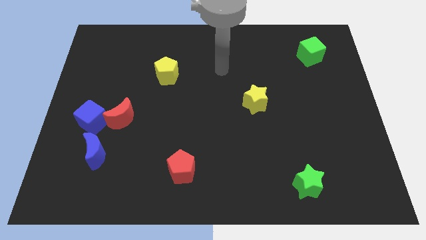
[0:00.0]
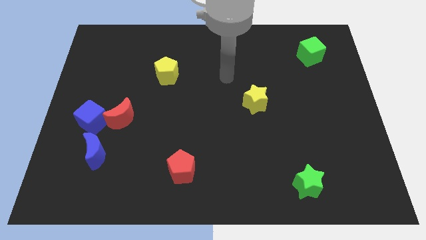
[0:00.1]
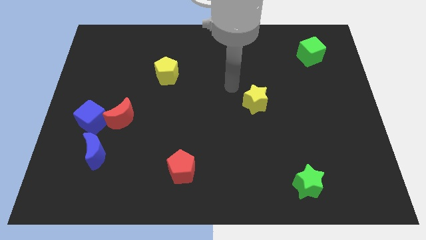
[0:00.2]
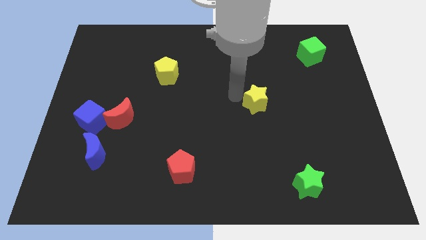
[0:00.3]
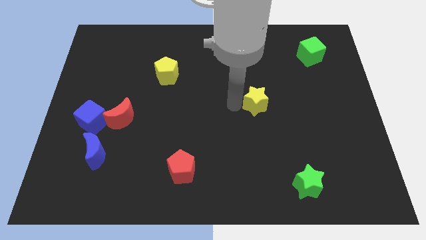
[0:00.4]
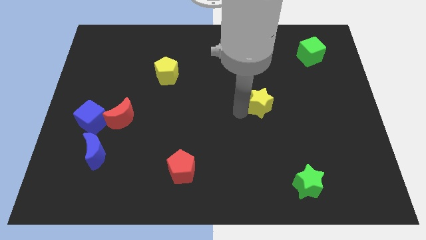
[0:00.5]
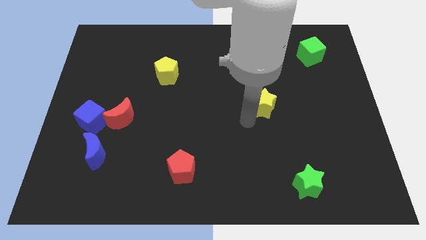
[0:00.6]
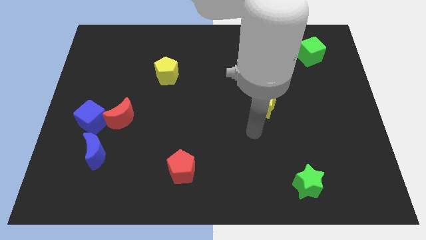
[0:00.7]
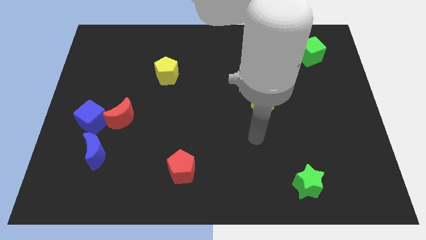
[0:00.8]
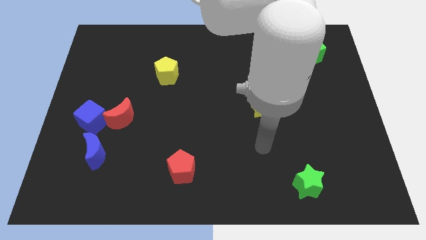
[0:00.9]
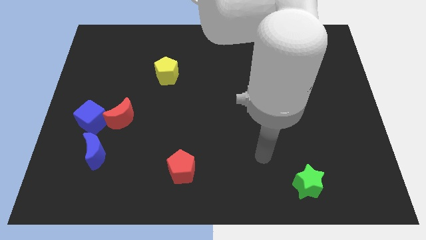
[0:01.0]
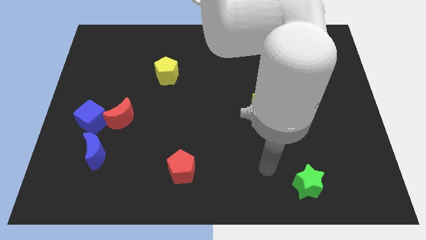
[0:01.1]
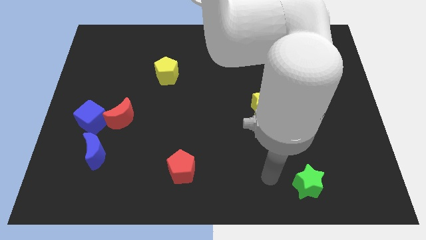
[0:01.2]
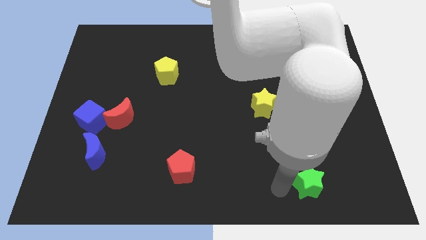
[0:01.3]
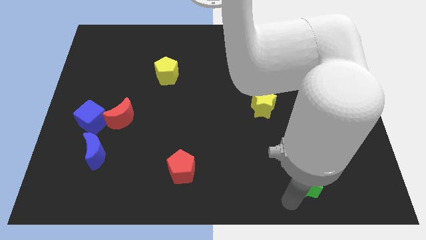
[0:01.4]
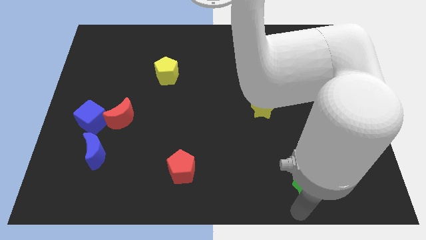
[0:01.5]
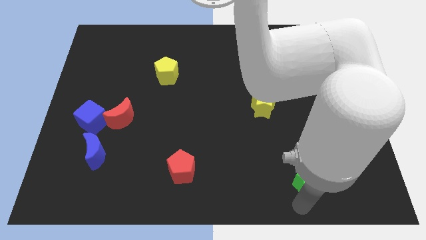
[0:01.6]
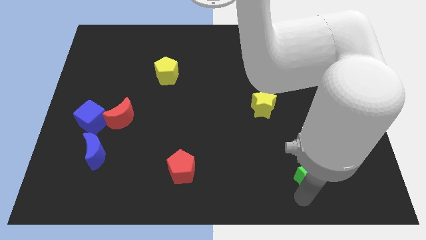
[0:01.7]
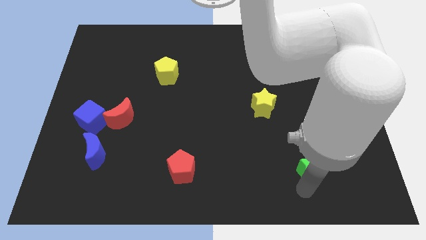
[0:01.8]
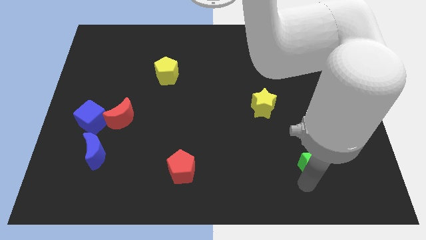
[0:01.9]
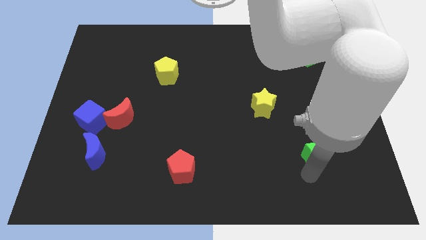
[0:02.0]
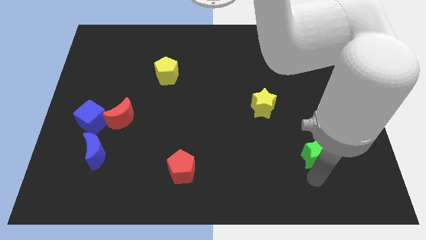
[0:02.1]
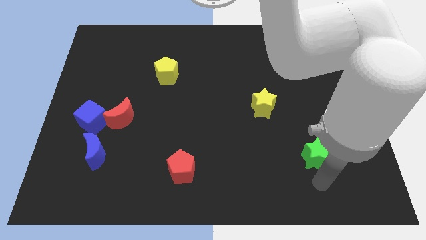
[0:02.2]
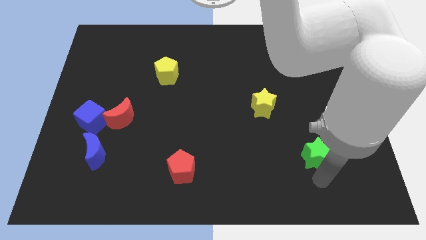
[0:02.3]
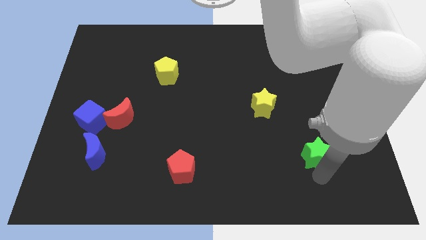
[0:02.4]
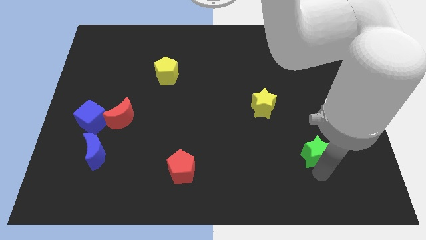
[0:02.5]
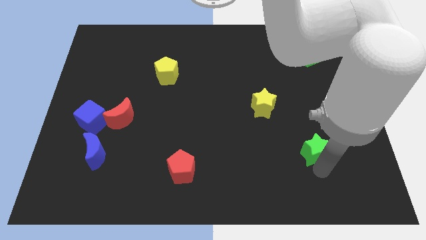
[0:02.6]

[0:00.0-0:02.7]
push the green star upwards a little bit

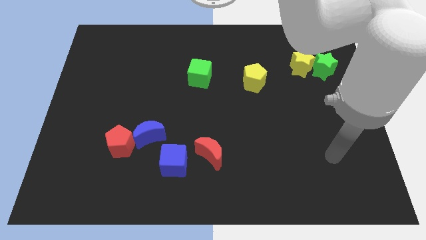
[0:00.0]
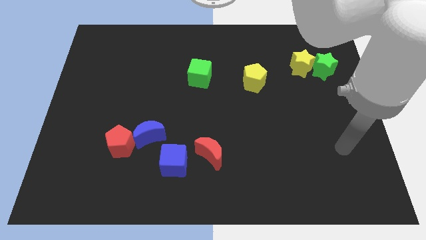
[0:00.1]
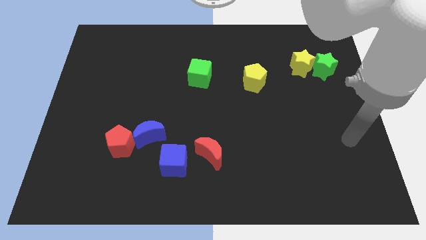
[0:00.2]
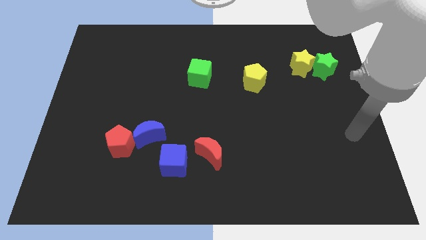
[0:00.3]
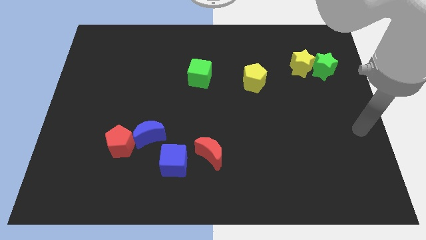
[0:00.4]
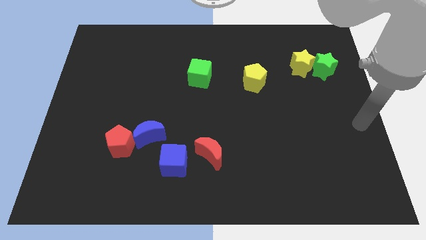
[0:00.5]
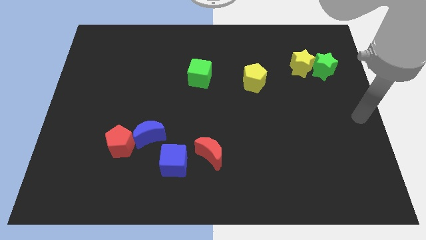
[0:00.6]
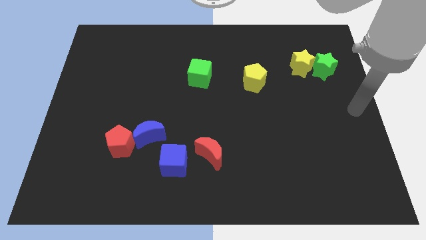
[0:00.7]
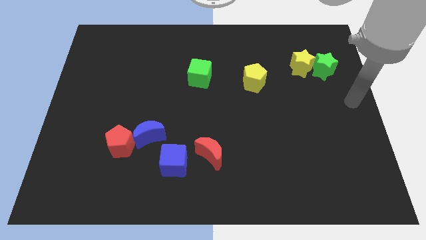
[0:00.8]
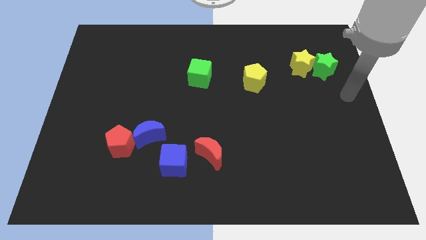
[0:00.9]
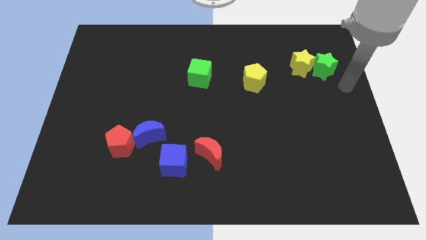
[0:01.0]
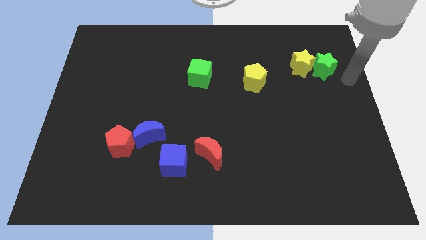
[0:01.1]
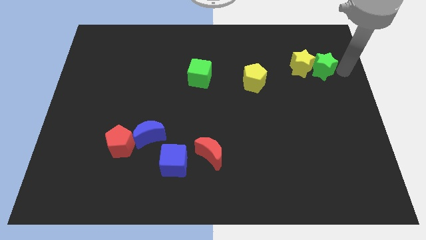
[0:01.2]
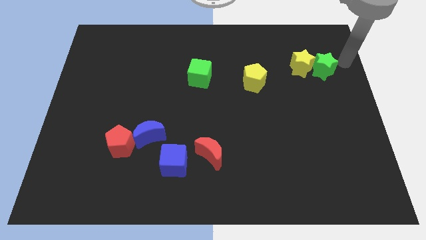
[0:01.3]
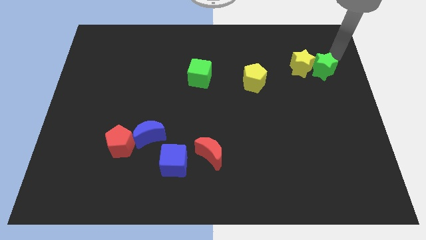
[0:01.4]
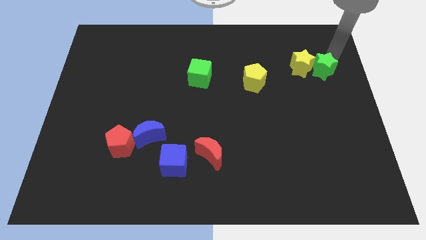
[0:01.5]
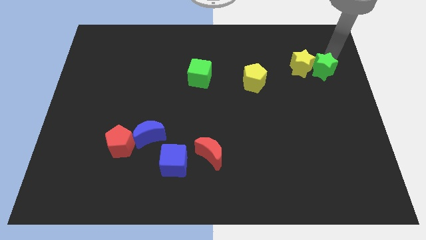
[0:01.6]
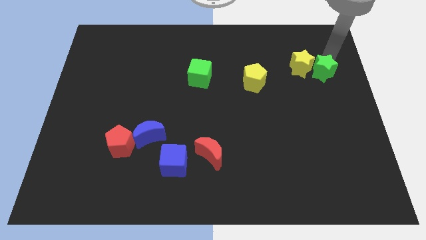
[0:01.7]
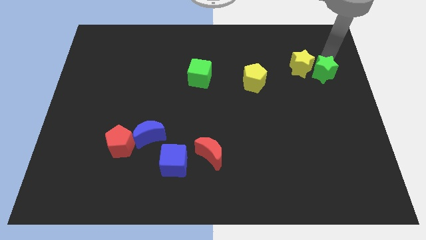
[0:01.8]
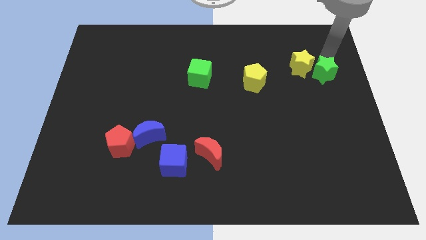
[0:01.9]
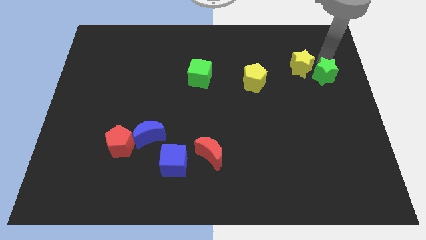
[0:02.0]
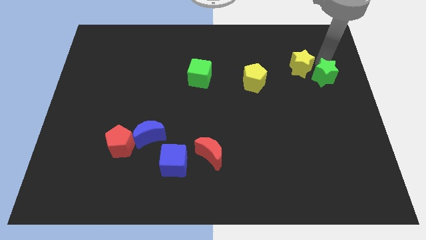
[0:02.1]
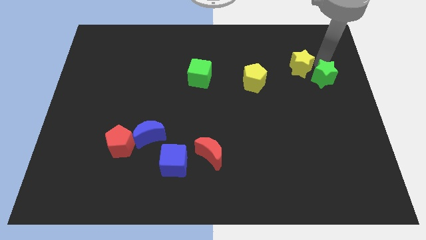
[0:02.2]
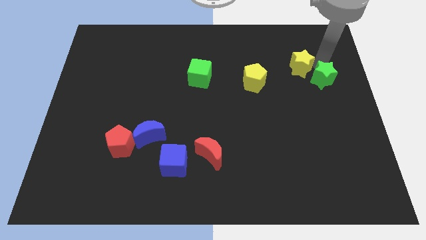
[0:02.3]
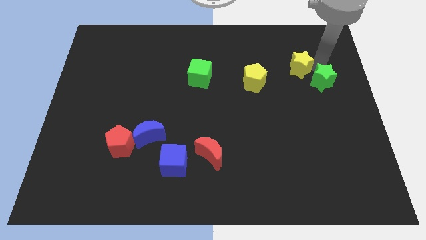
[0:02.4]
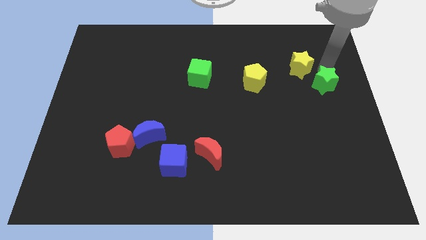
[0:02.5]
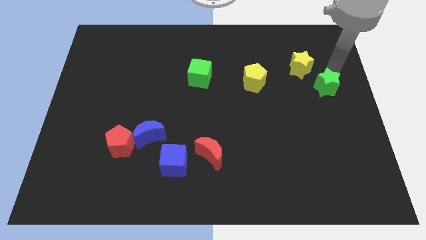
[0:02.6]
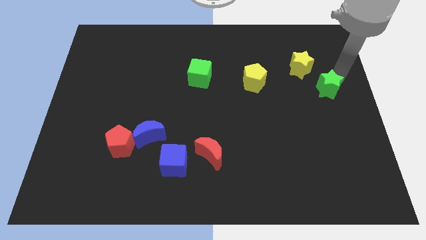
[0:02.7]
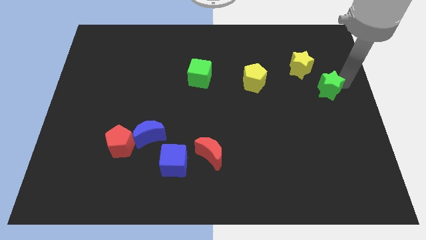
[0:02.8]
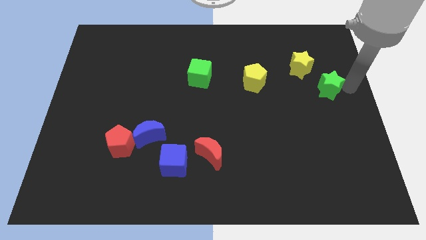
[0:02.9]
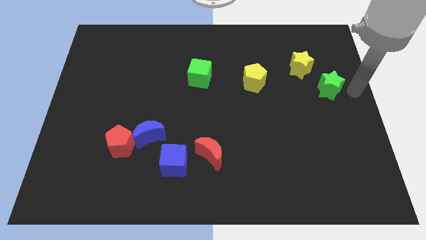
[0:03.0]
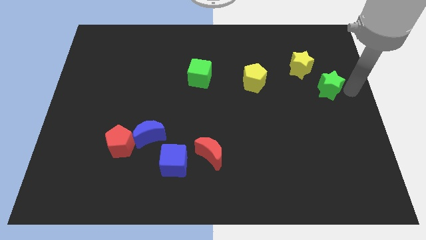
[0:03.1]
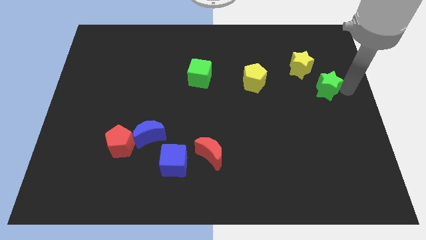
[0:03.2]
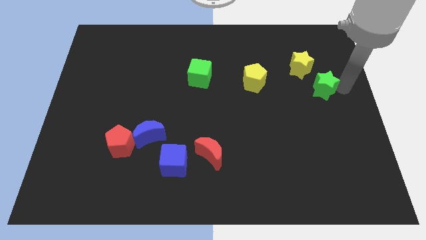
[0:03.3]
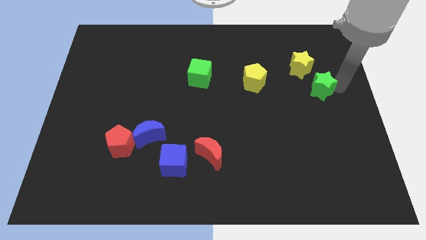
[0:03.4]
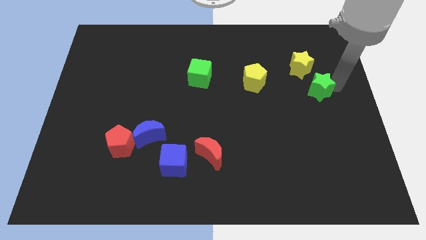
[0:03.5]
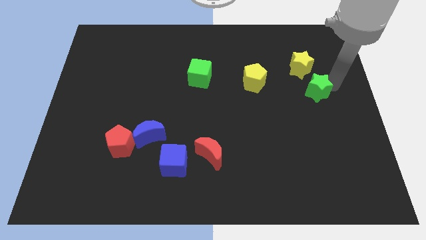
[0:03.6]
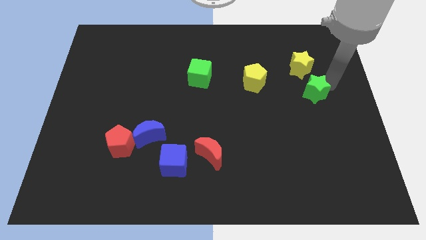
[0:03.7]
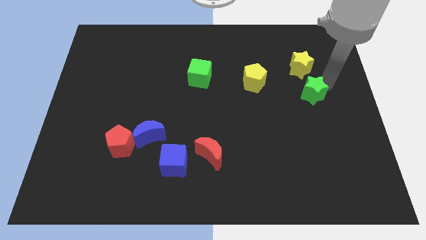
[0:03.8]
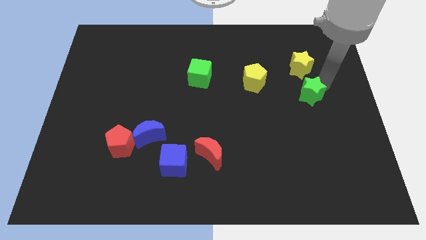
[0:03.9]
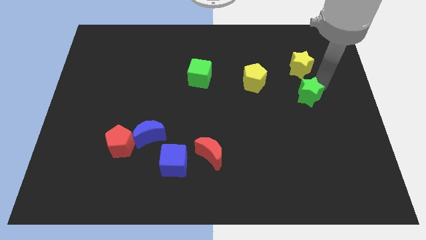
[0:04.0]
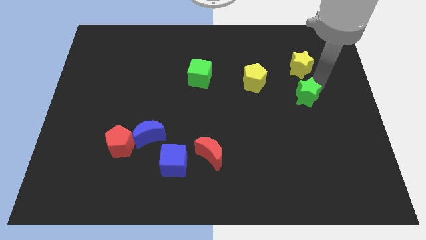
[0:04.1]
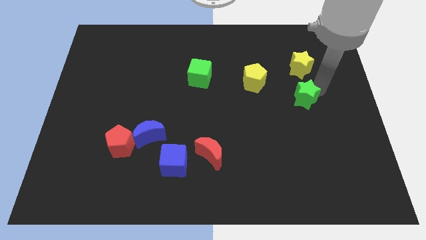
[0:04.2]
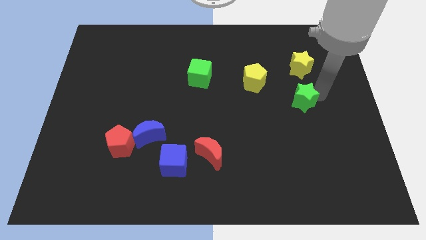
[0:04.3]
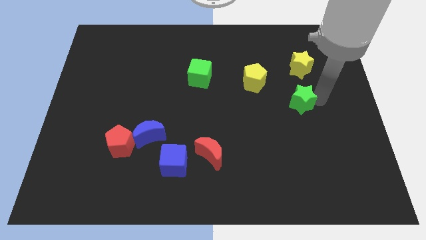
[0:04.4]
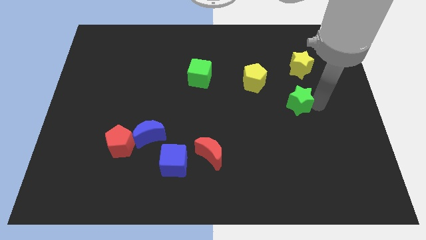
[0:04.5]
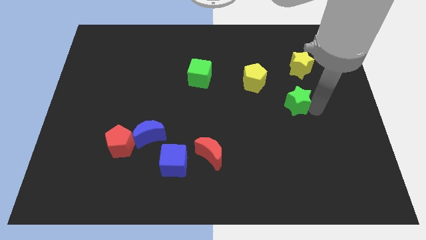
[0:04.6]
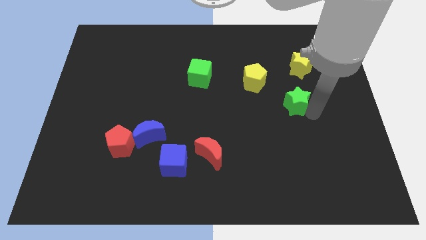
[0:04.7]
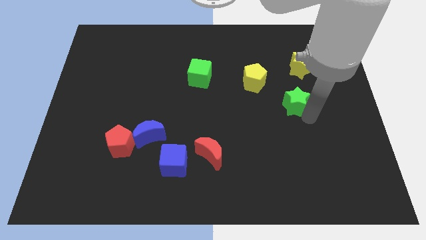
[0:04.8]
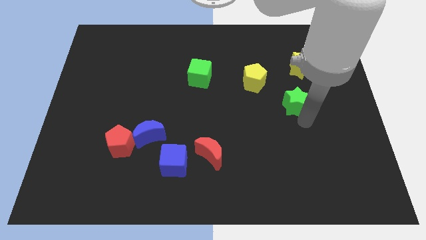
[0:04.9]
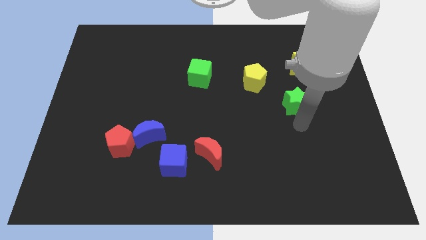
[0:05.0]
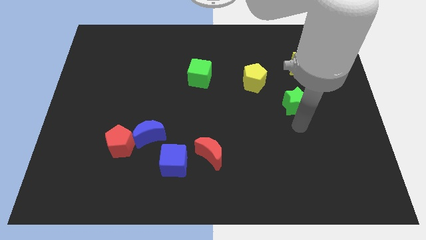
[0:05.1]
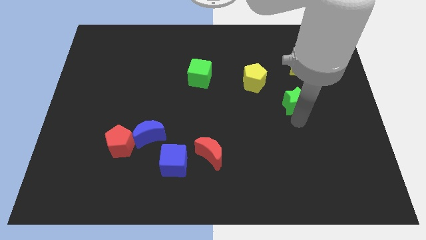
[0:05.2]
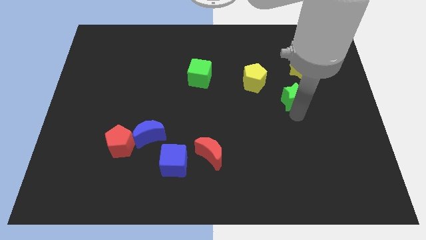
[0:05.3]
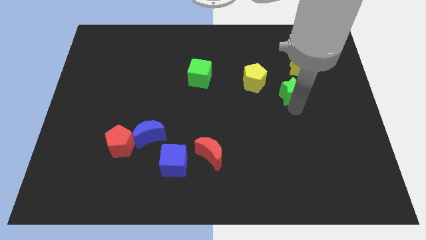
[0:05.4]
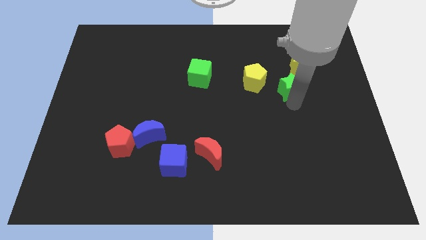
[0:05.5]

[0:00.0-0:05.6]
push the green star a bit to the left
